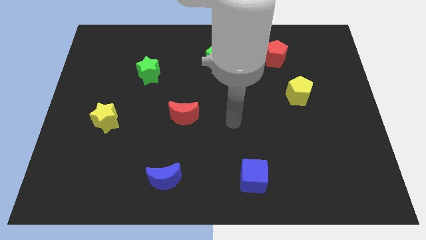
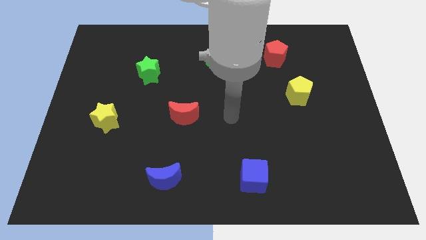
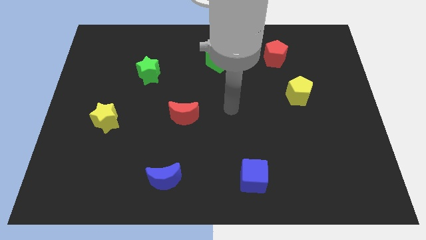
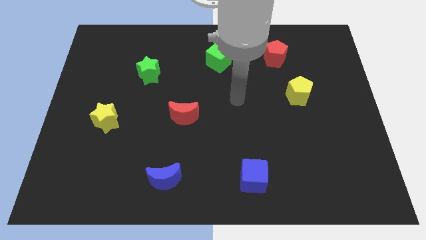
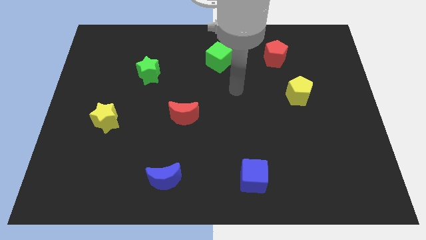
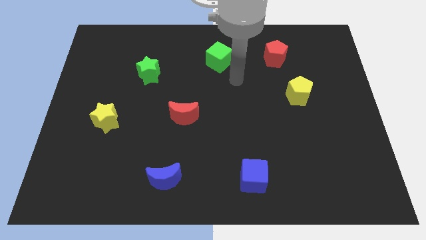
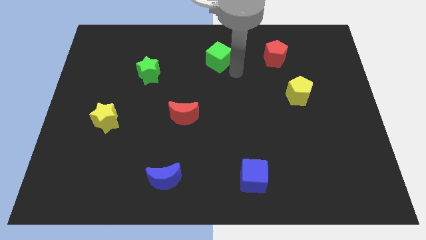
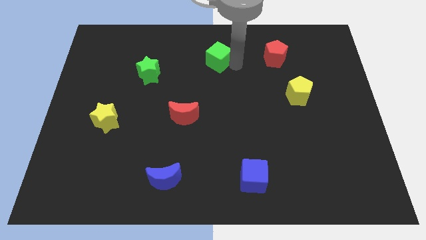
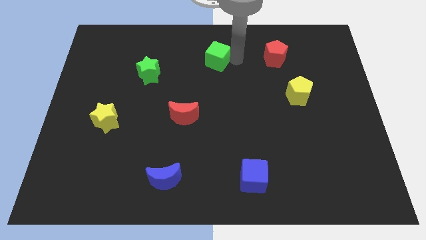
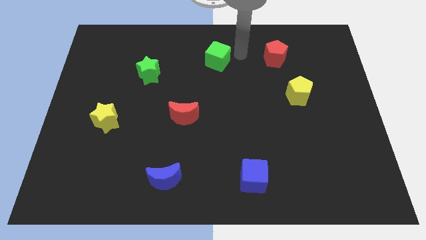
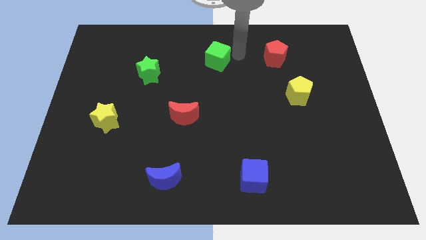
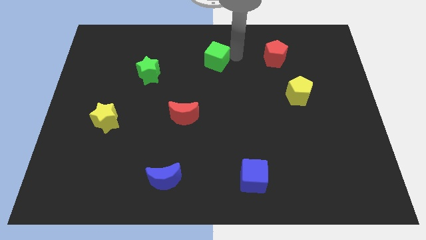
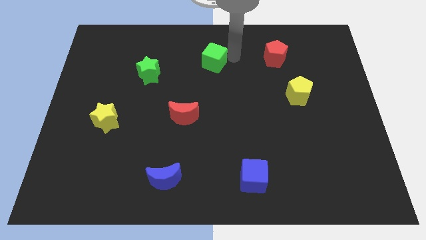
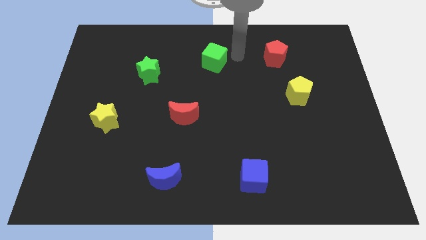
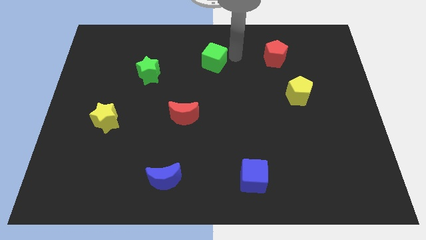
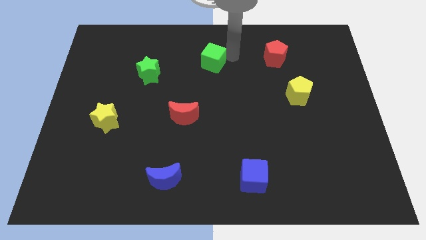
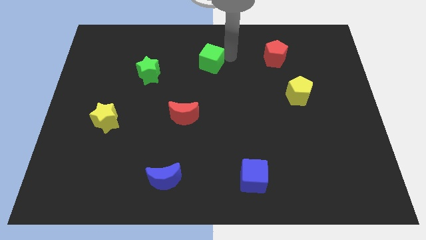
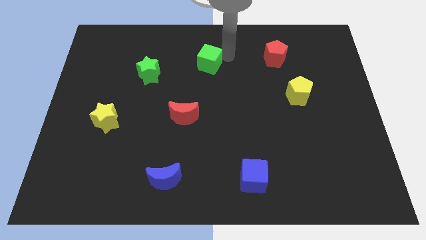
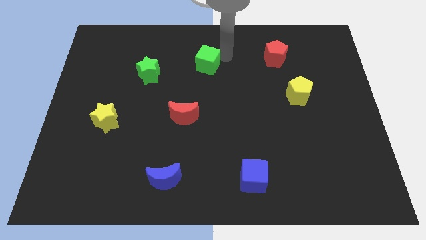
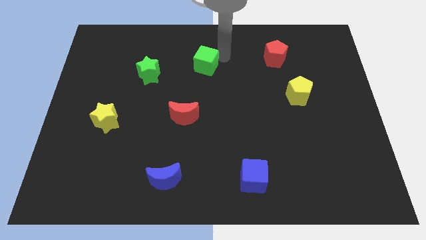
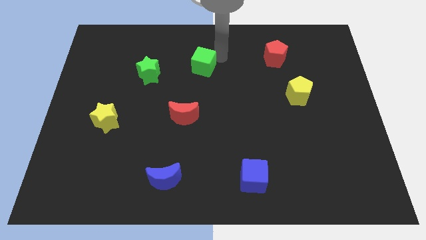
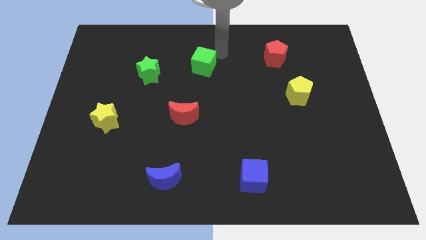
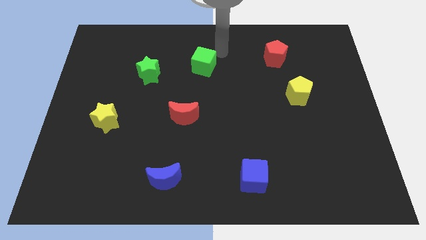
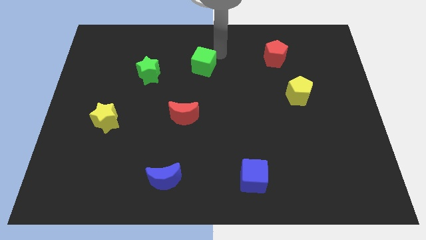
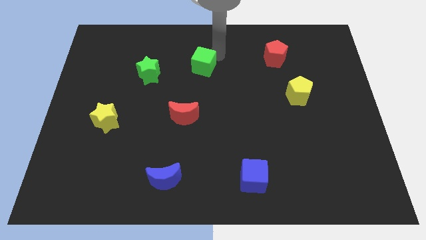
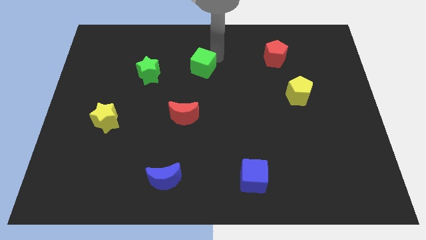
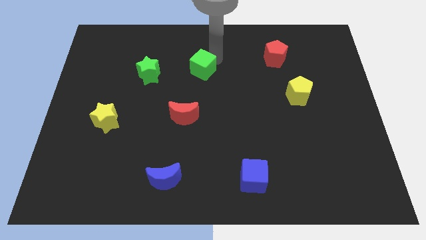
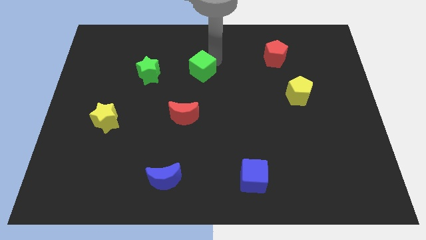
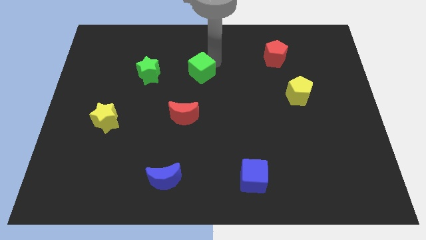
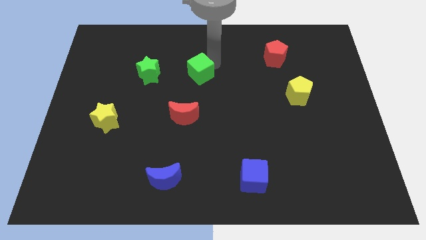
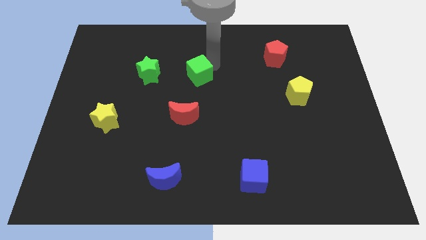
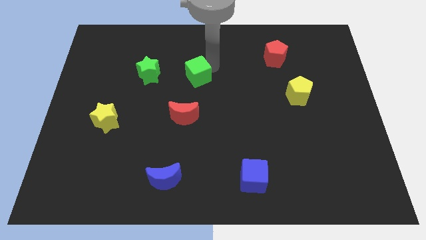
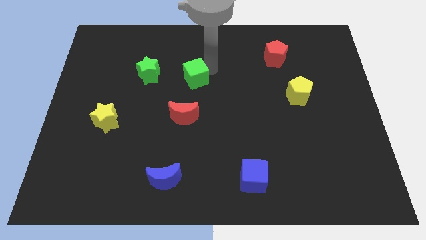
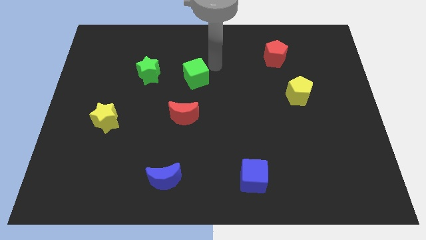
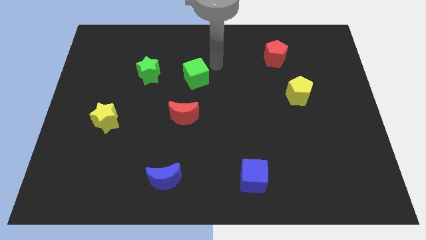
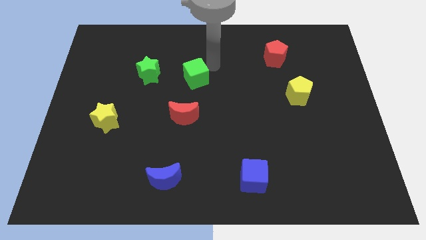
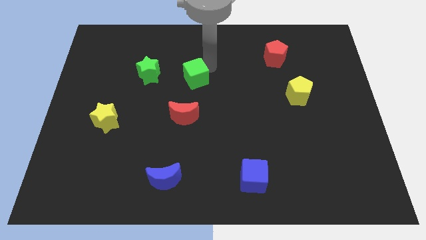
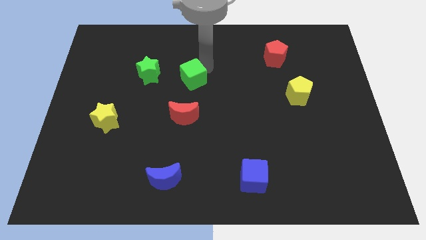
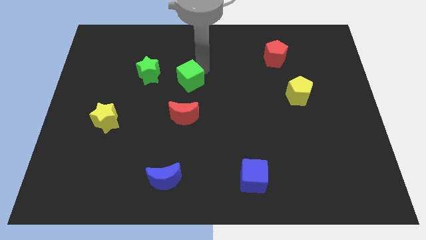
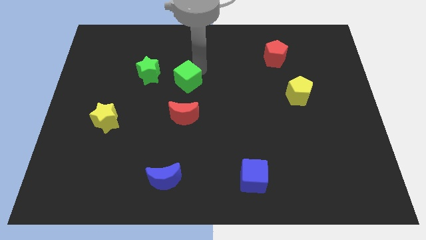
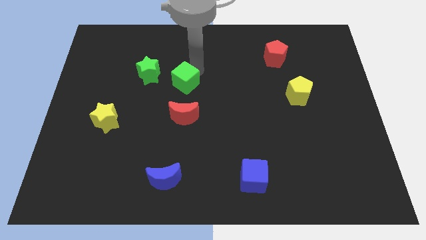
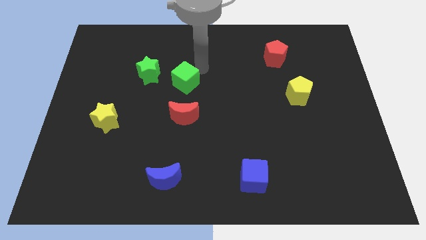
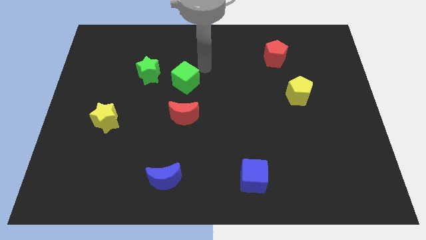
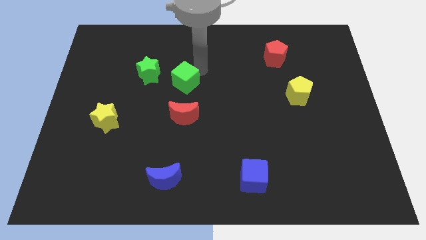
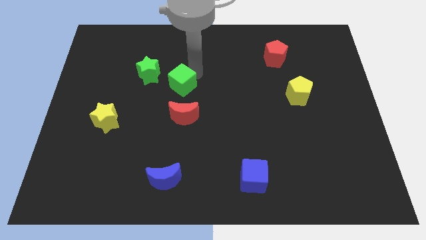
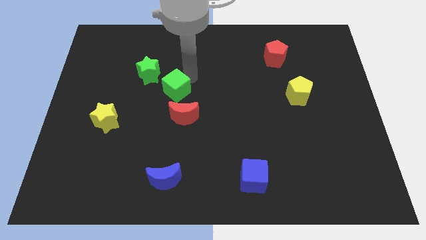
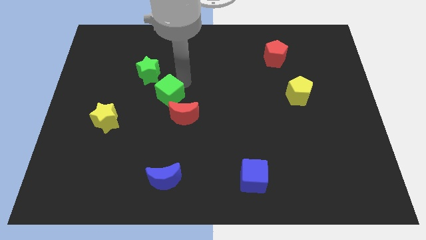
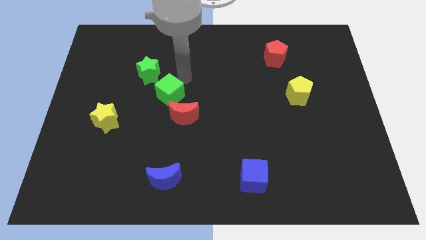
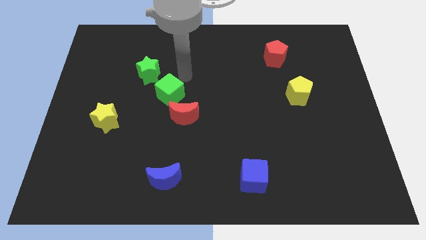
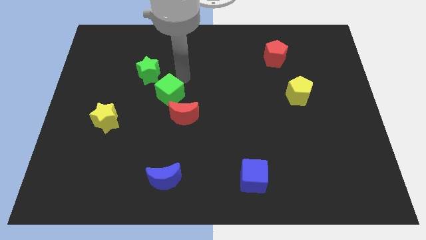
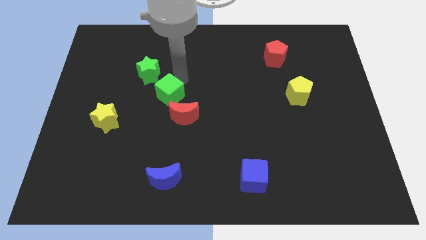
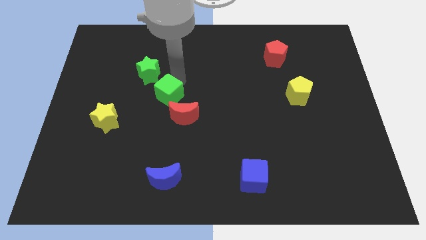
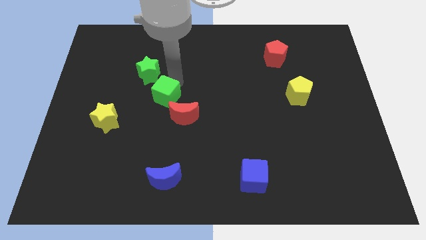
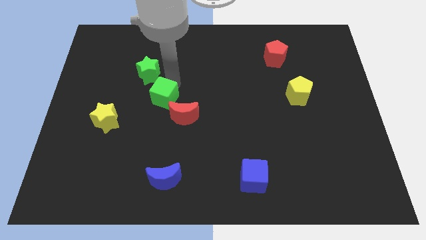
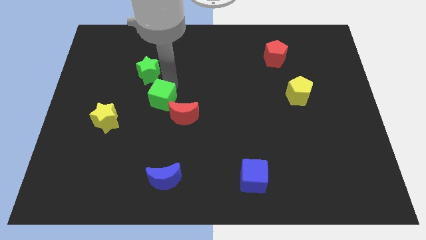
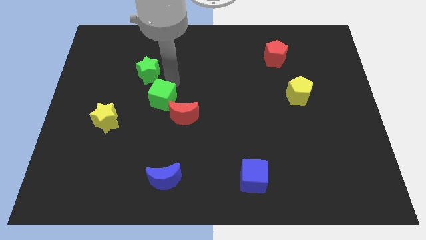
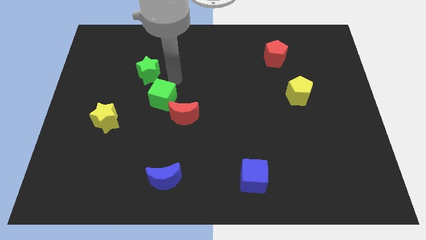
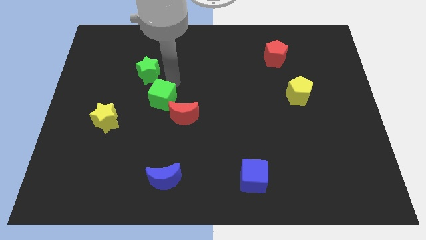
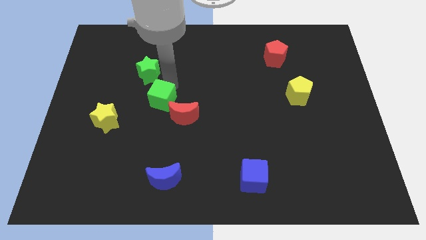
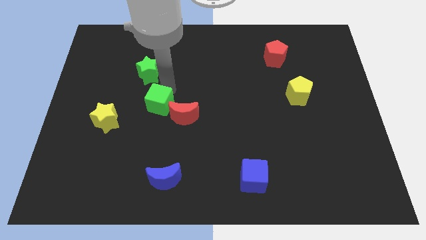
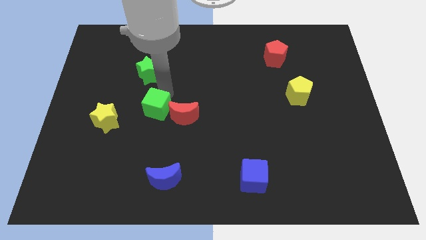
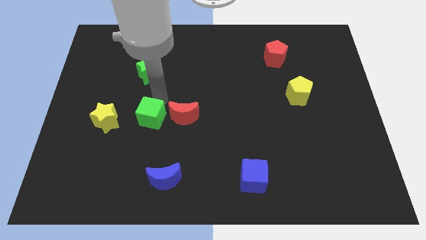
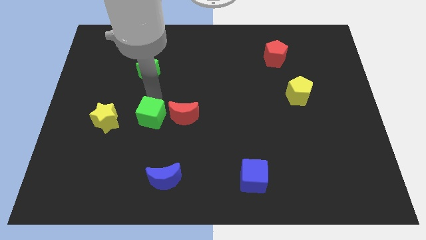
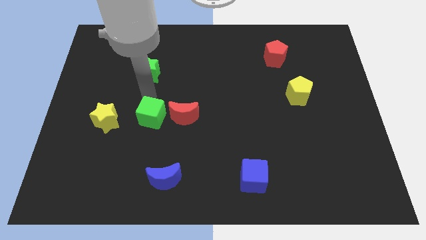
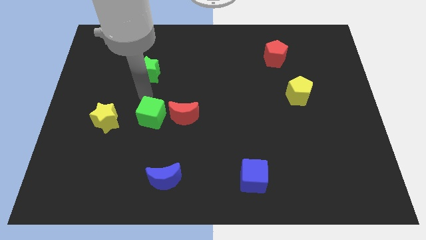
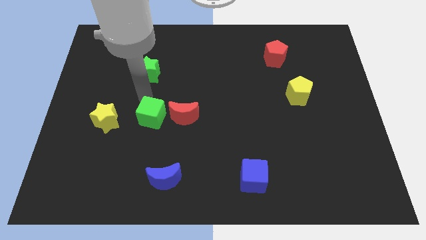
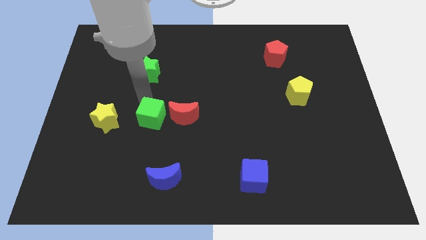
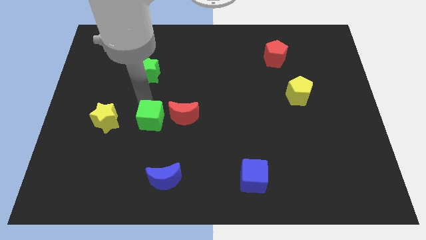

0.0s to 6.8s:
move the green cube to the bottom left side of the red moon

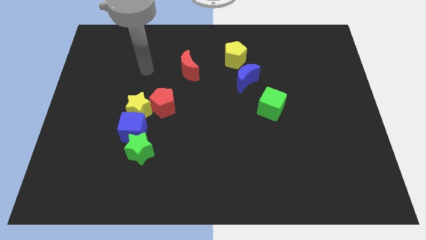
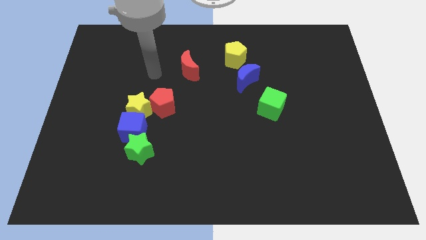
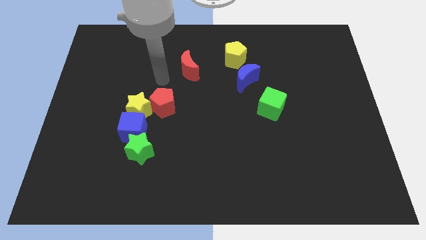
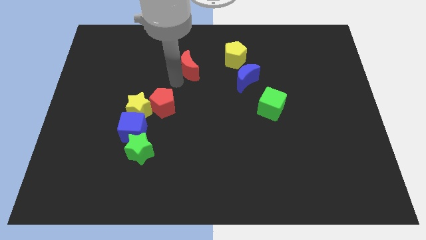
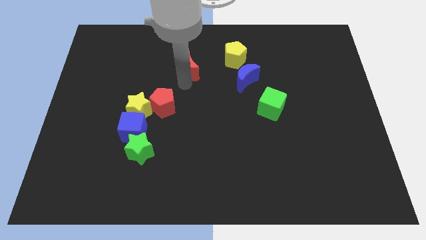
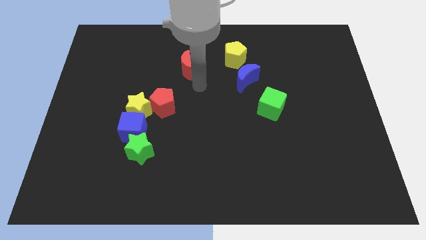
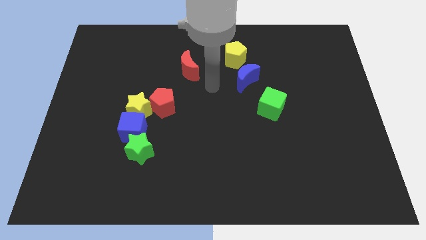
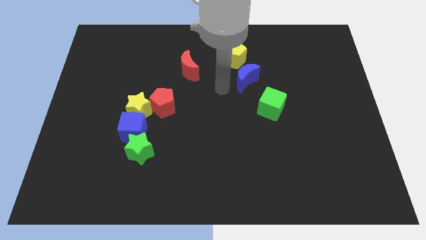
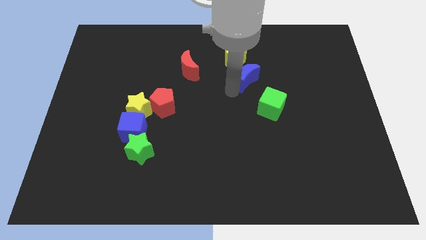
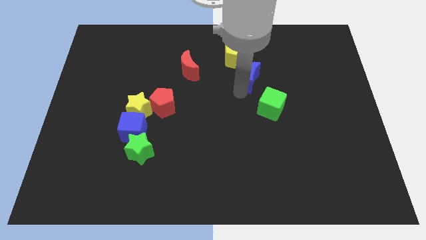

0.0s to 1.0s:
put the green cube to the bottom side of the blue moon
